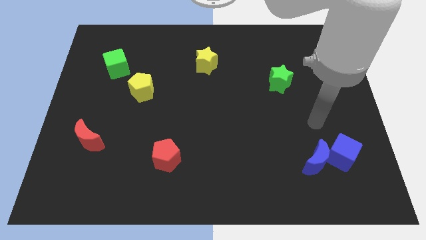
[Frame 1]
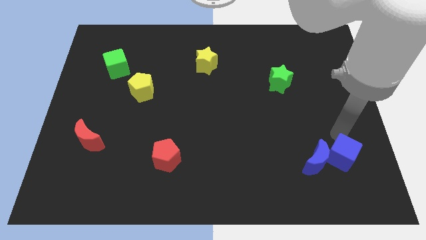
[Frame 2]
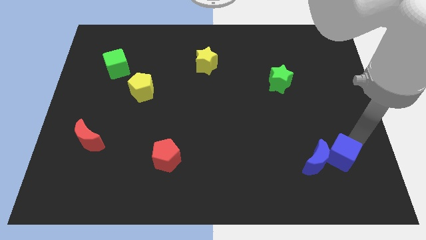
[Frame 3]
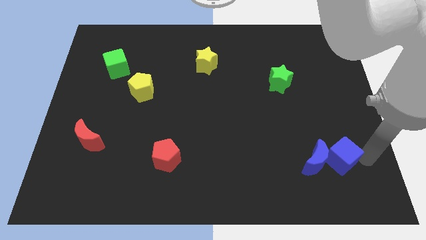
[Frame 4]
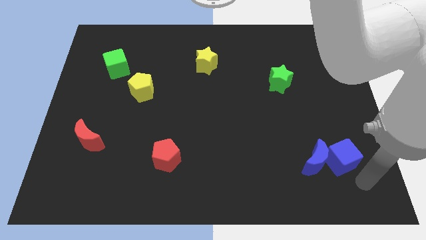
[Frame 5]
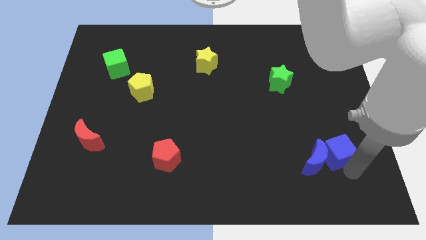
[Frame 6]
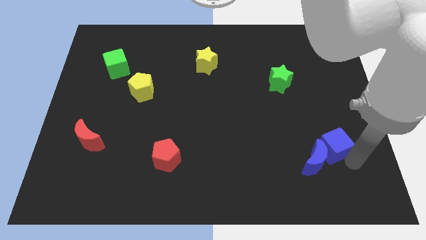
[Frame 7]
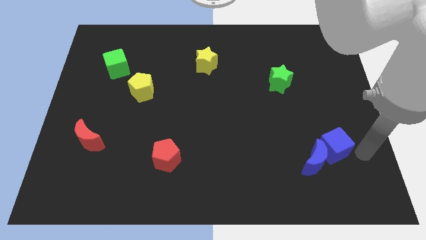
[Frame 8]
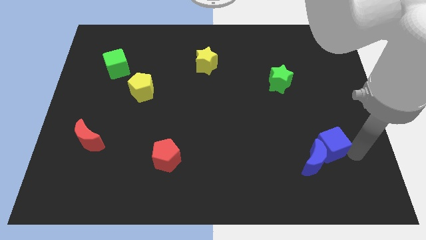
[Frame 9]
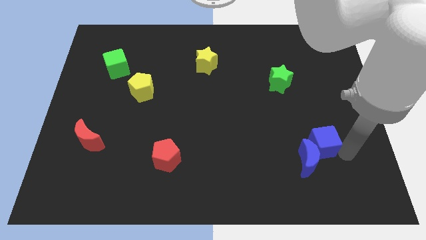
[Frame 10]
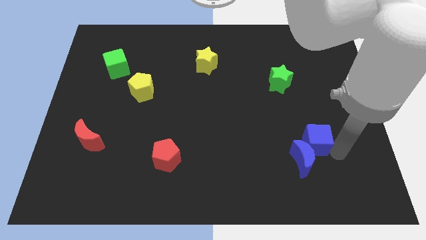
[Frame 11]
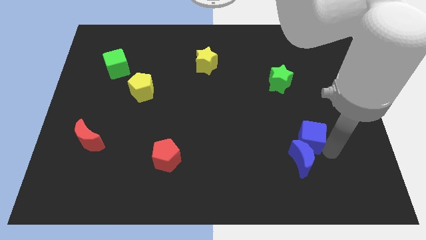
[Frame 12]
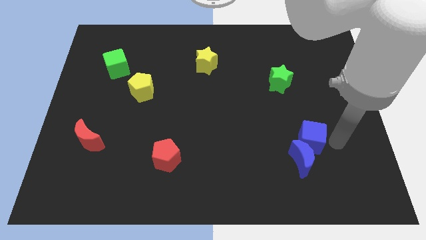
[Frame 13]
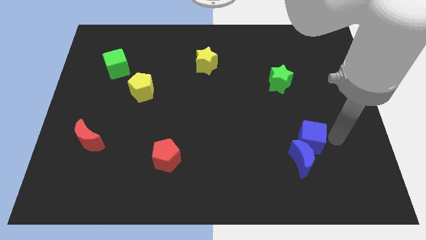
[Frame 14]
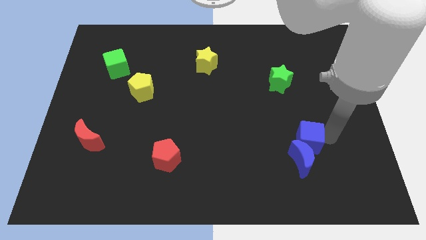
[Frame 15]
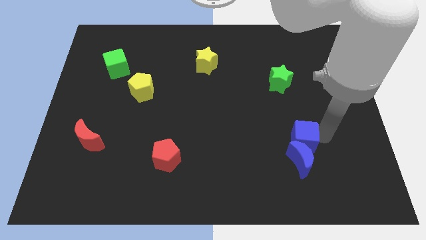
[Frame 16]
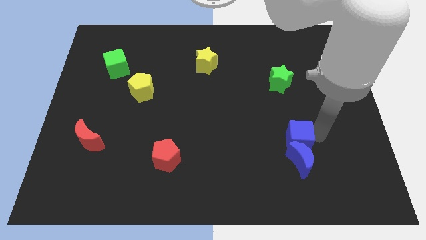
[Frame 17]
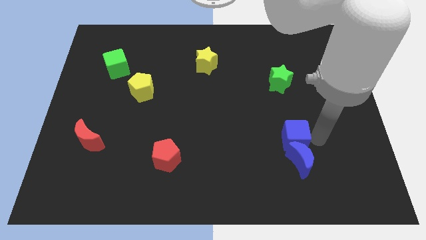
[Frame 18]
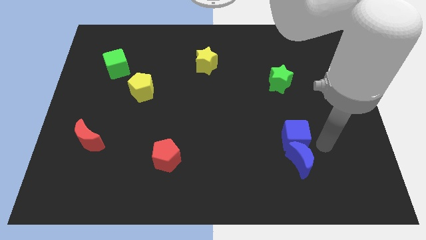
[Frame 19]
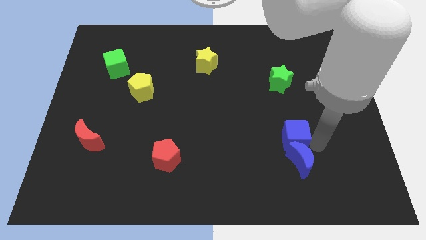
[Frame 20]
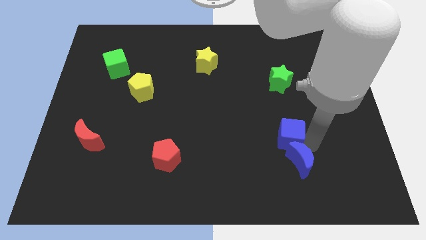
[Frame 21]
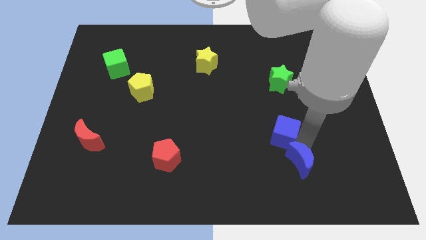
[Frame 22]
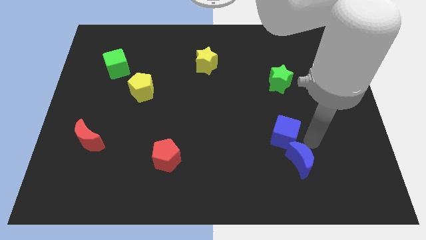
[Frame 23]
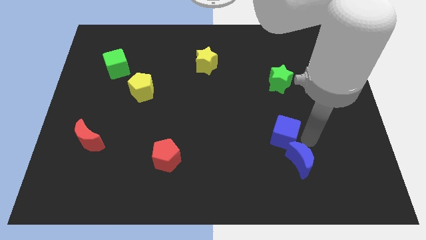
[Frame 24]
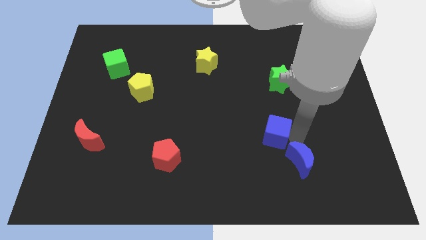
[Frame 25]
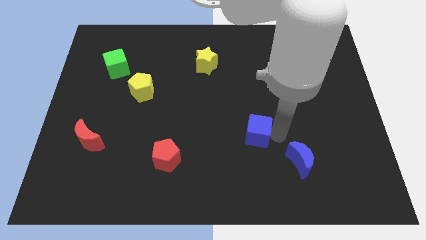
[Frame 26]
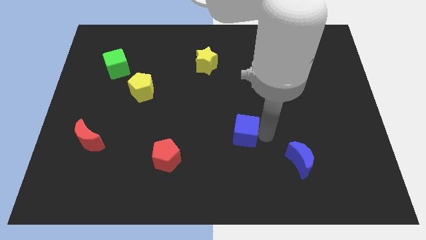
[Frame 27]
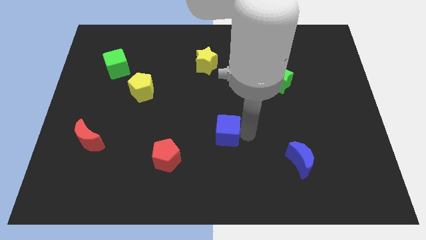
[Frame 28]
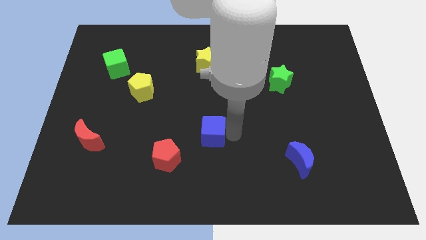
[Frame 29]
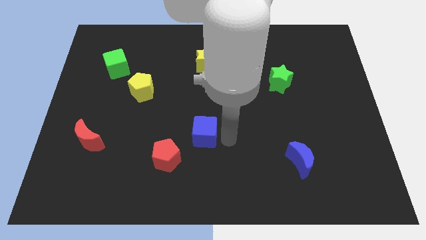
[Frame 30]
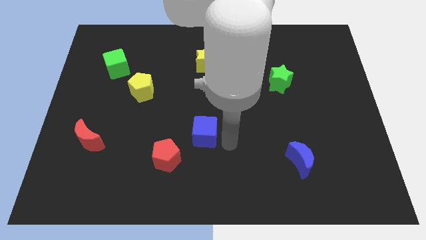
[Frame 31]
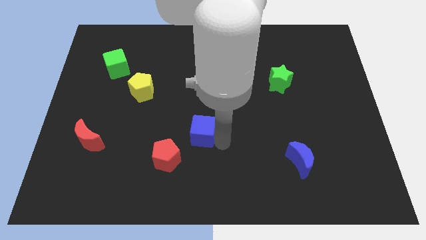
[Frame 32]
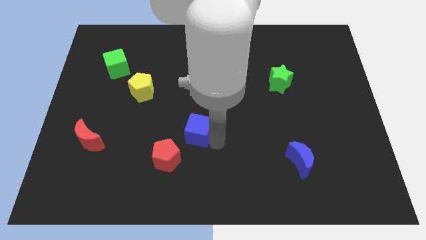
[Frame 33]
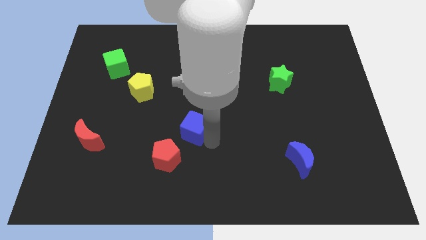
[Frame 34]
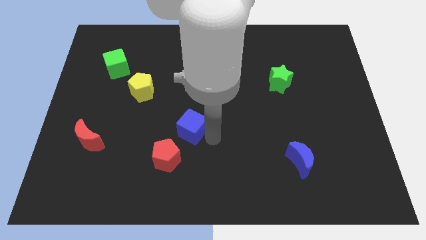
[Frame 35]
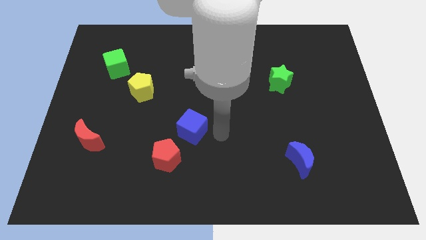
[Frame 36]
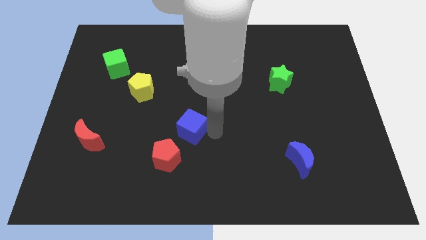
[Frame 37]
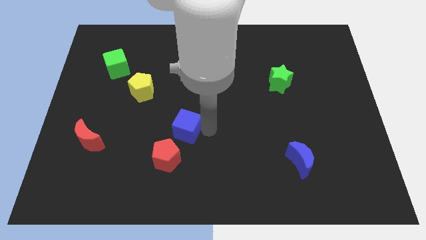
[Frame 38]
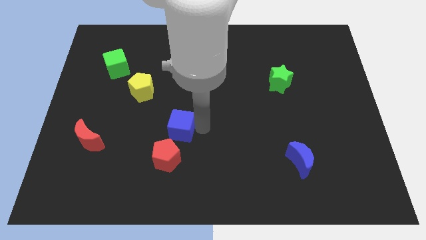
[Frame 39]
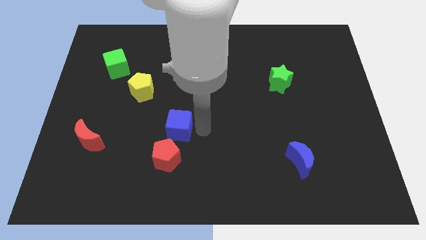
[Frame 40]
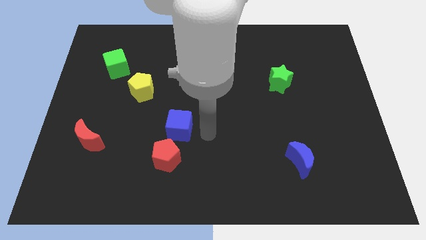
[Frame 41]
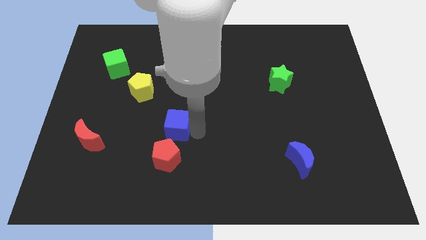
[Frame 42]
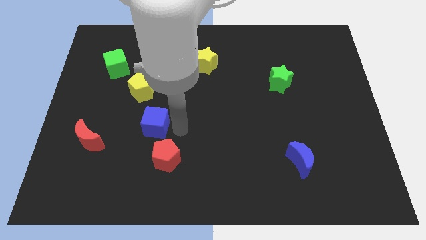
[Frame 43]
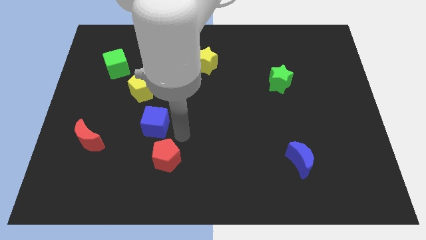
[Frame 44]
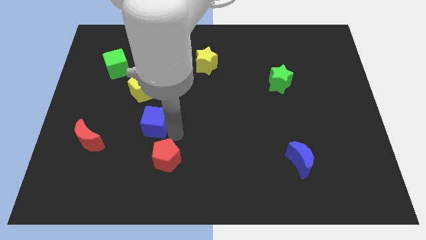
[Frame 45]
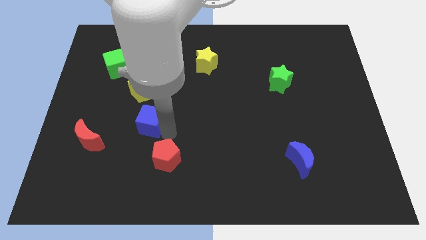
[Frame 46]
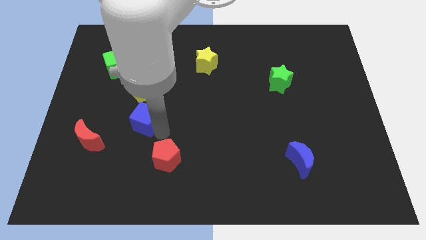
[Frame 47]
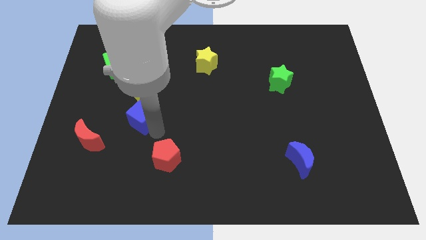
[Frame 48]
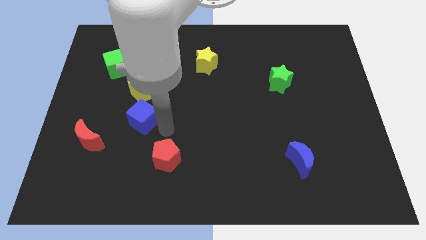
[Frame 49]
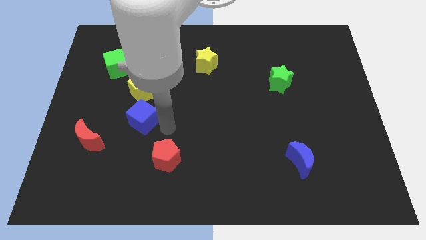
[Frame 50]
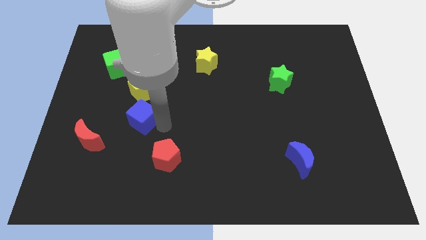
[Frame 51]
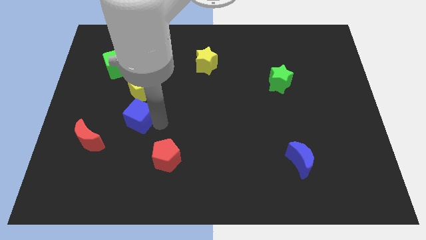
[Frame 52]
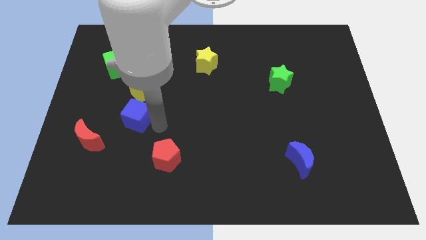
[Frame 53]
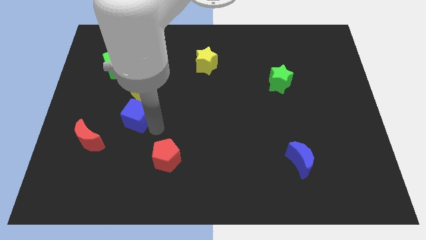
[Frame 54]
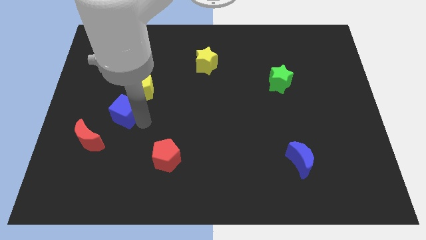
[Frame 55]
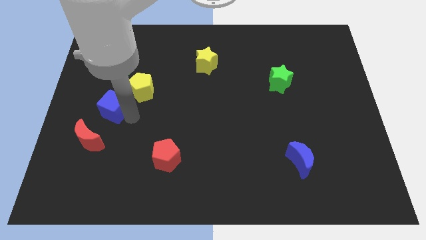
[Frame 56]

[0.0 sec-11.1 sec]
slide the blue cube above the red moon
